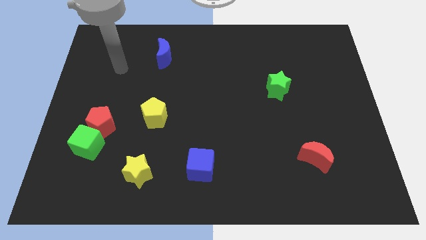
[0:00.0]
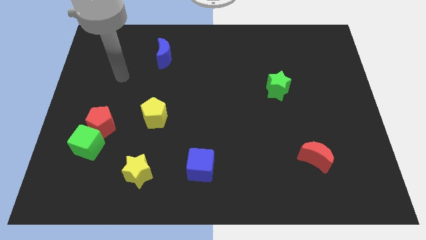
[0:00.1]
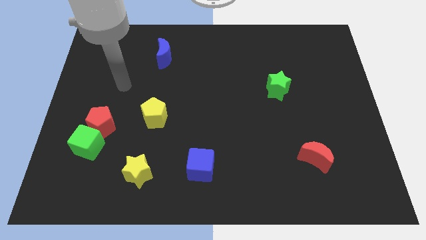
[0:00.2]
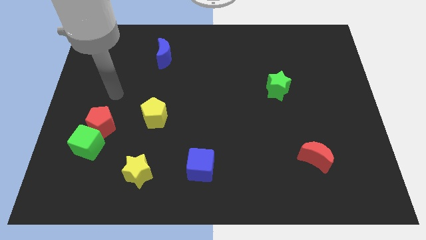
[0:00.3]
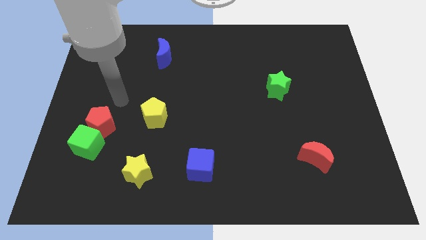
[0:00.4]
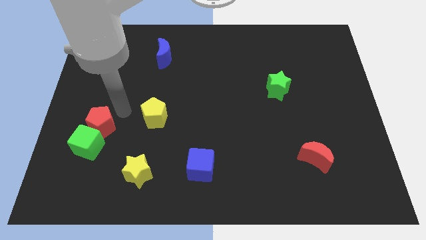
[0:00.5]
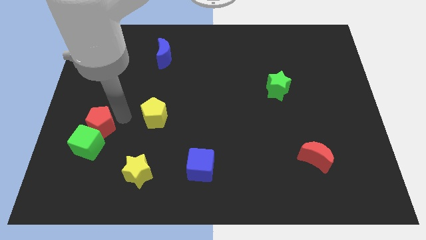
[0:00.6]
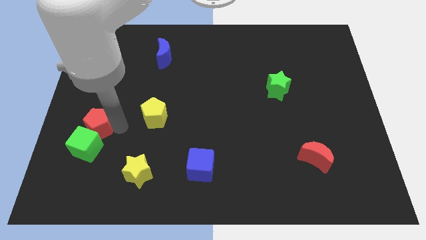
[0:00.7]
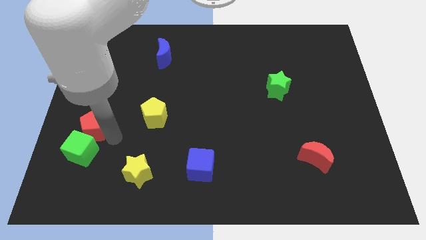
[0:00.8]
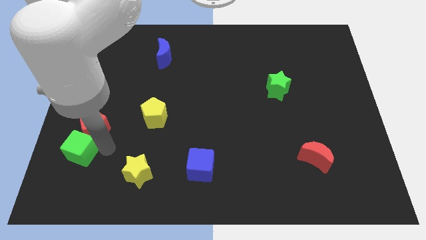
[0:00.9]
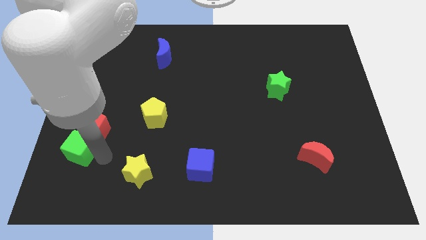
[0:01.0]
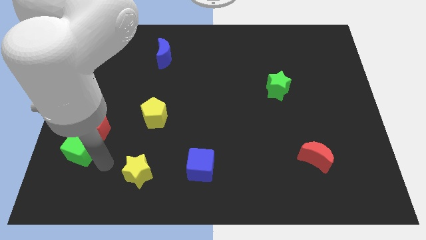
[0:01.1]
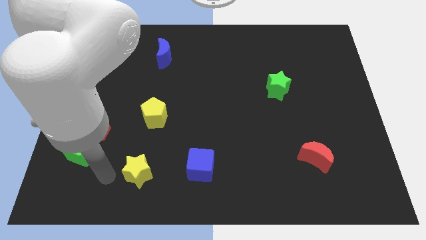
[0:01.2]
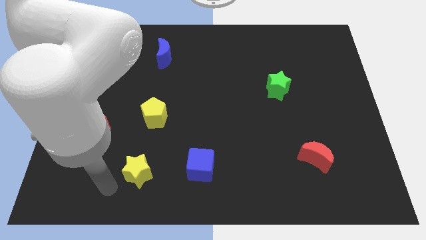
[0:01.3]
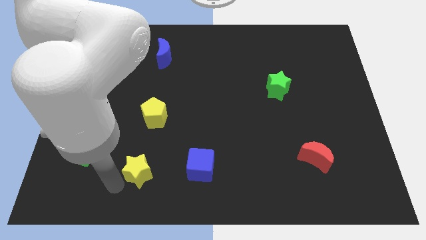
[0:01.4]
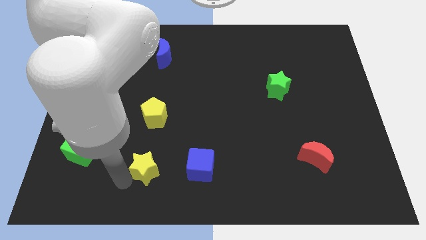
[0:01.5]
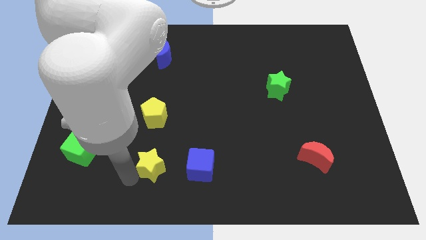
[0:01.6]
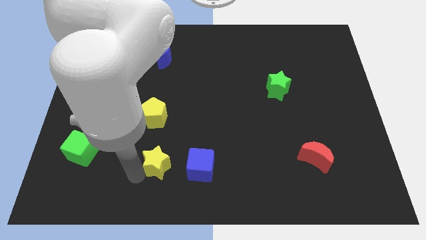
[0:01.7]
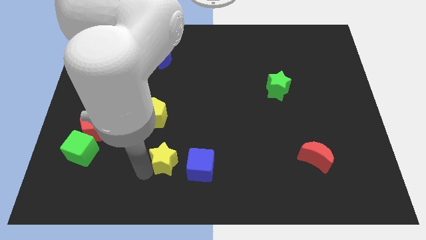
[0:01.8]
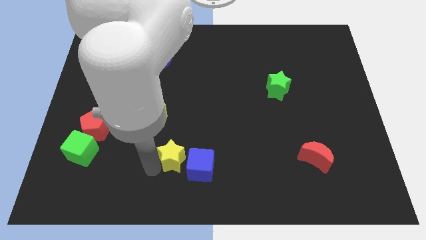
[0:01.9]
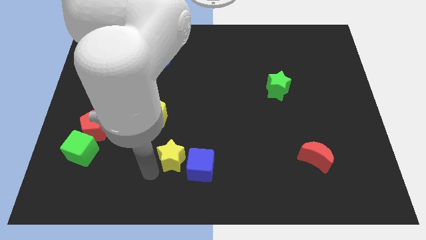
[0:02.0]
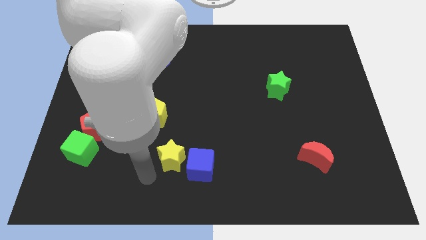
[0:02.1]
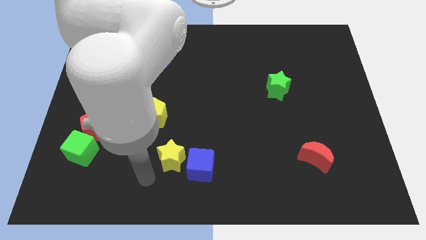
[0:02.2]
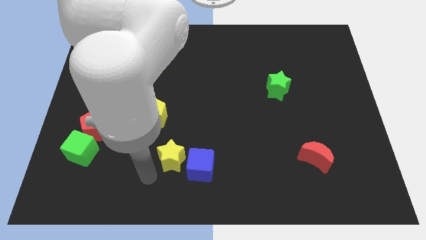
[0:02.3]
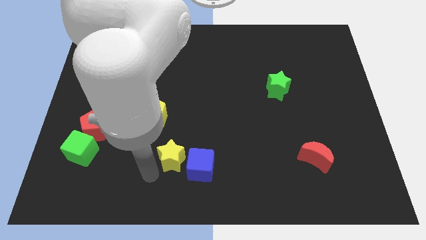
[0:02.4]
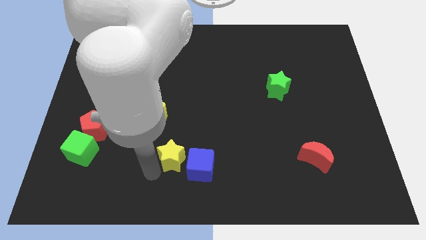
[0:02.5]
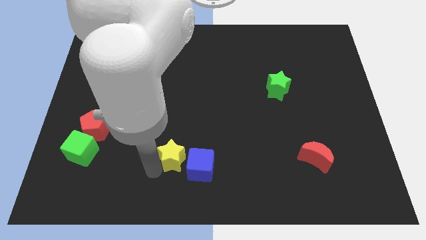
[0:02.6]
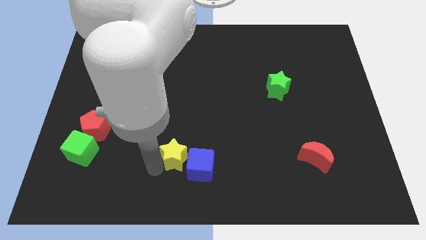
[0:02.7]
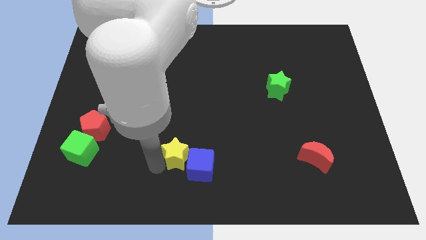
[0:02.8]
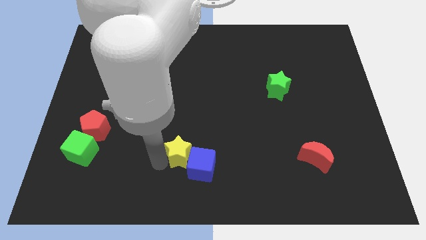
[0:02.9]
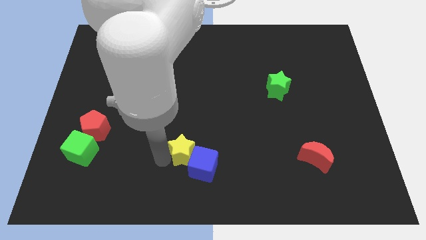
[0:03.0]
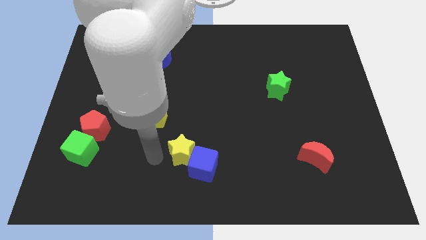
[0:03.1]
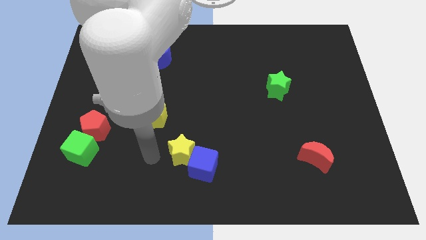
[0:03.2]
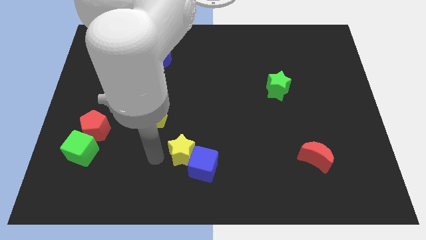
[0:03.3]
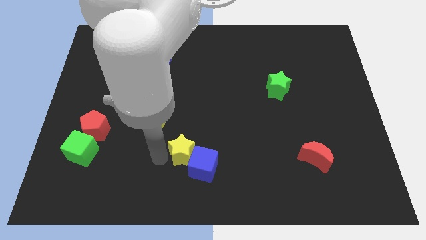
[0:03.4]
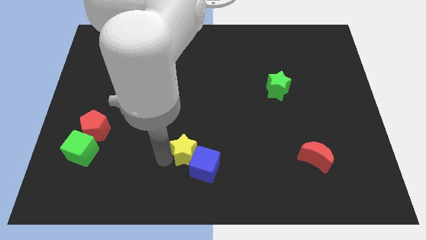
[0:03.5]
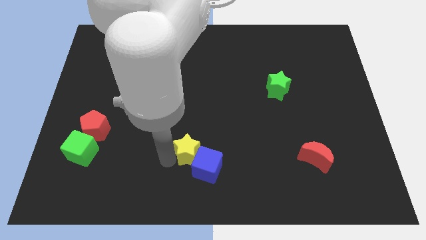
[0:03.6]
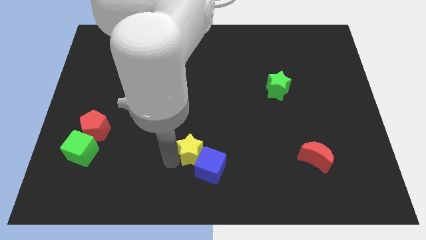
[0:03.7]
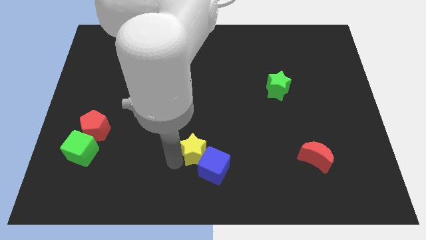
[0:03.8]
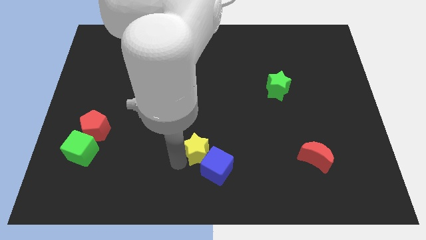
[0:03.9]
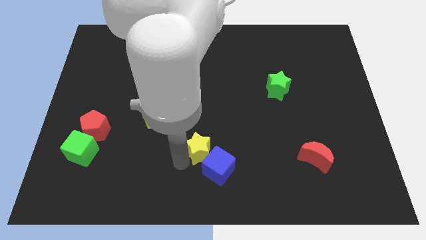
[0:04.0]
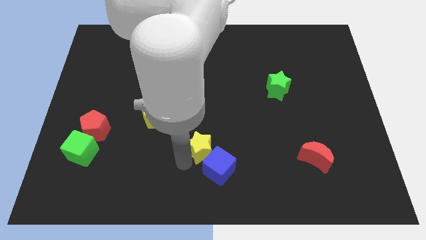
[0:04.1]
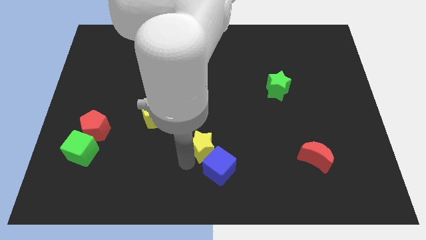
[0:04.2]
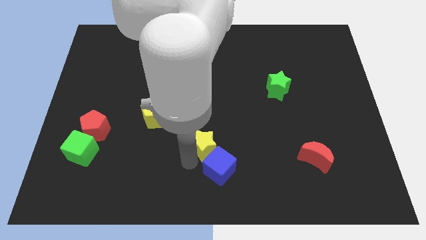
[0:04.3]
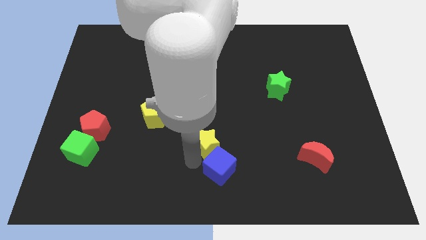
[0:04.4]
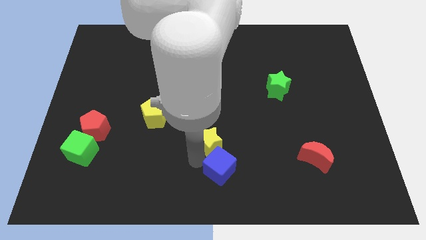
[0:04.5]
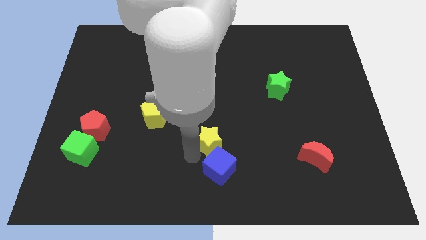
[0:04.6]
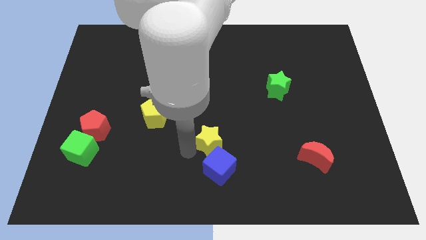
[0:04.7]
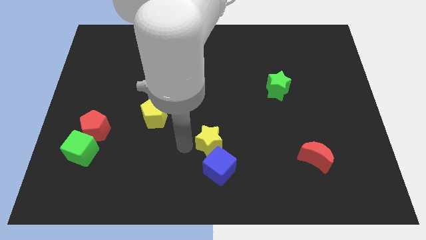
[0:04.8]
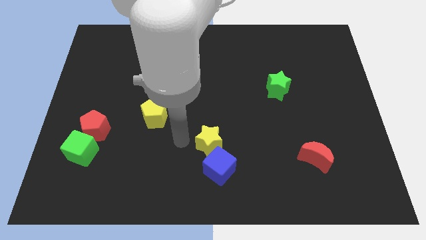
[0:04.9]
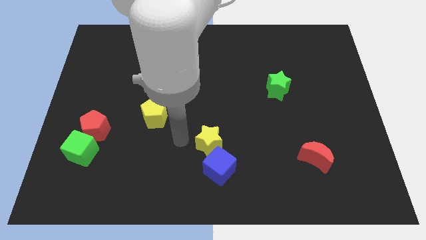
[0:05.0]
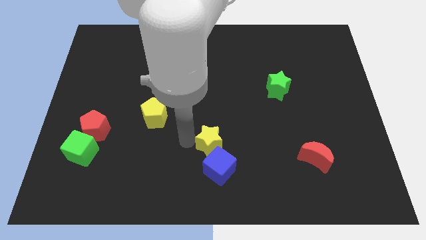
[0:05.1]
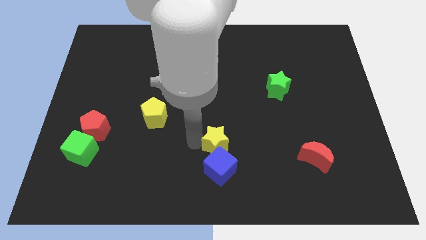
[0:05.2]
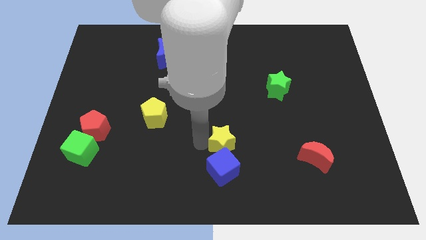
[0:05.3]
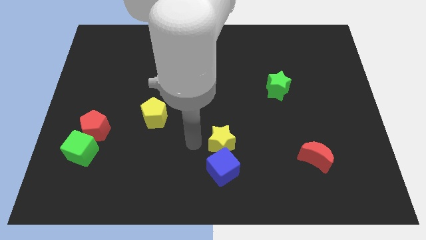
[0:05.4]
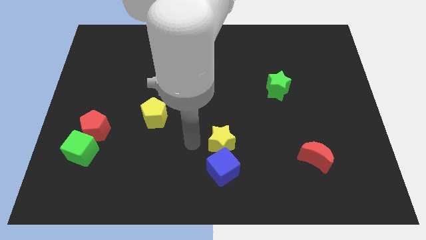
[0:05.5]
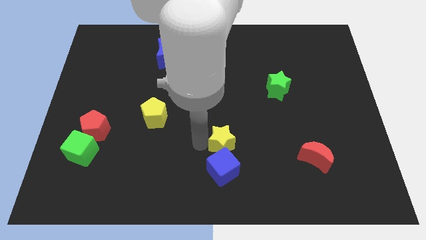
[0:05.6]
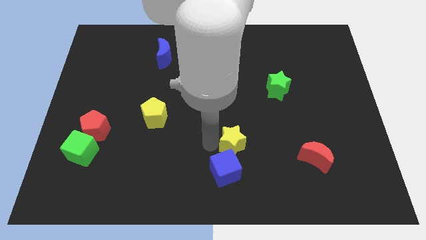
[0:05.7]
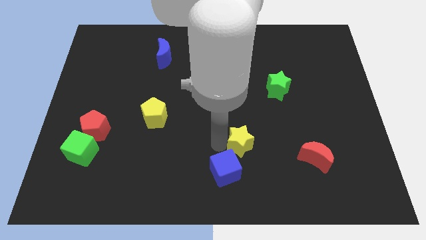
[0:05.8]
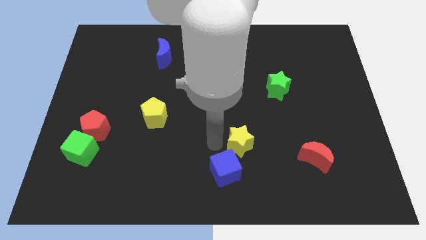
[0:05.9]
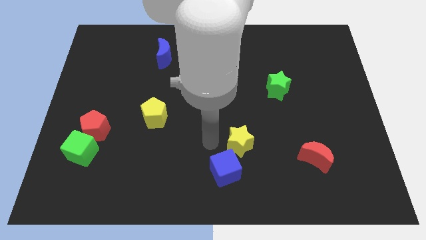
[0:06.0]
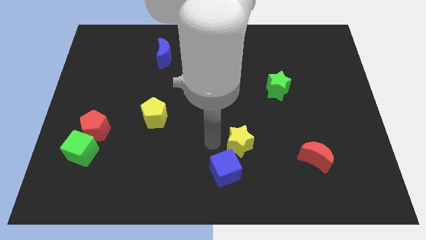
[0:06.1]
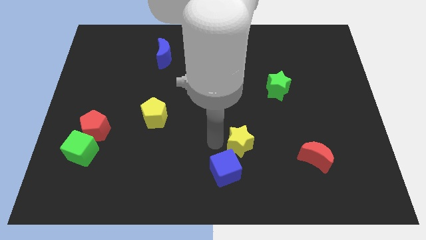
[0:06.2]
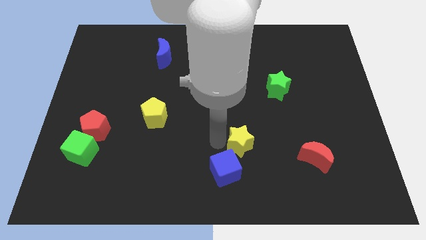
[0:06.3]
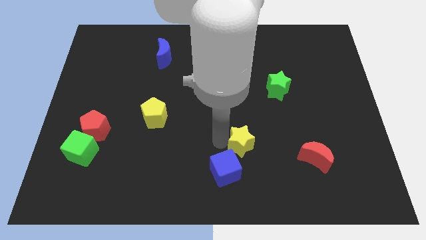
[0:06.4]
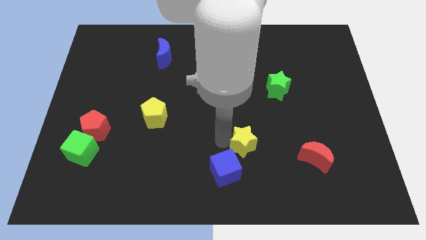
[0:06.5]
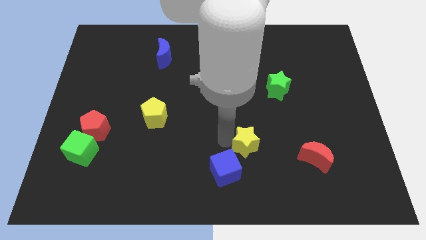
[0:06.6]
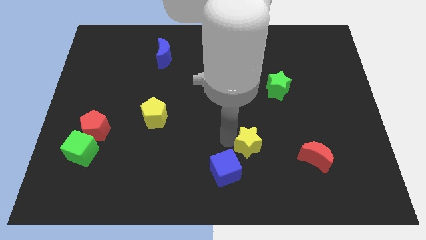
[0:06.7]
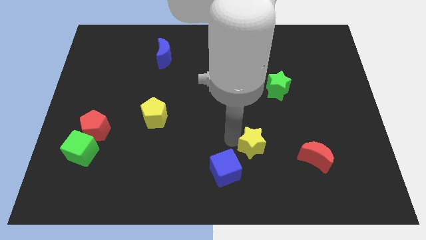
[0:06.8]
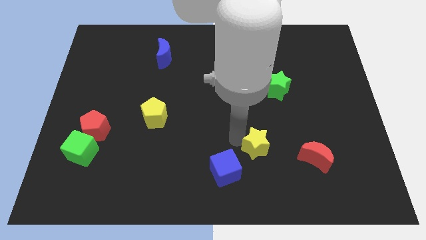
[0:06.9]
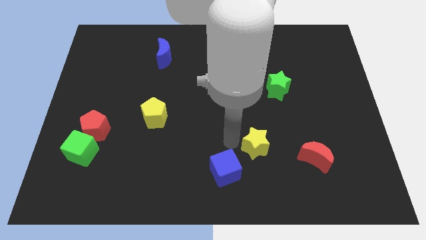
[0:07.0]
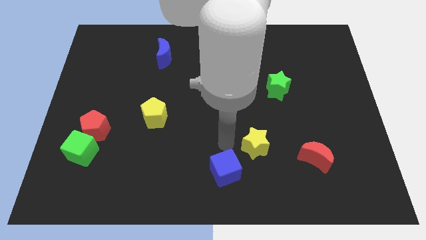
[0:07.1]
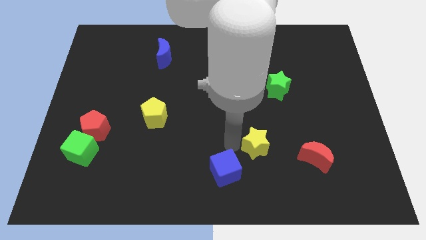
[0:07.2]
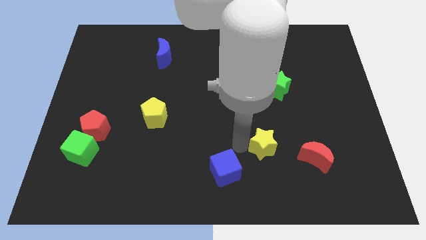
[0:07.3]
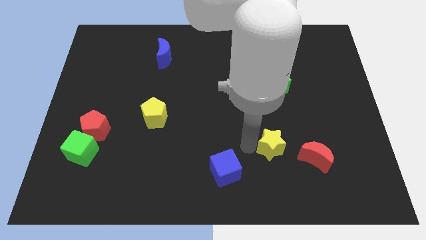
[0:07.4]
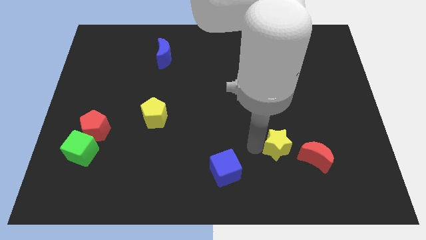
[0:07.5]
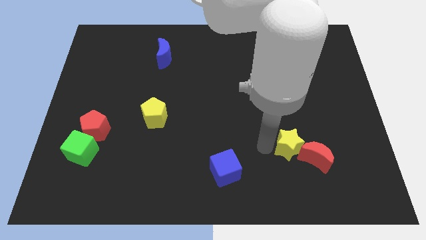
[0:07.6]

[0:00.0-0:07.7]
put the yellow star next to the red moon
